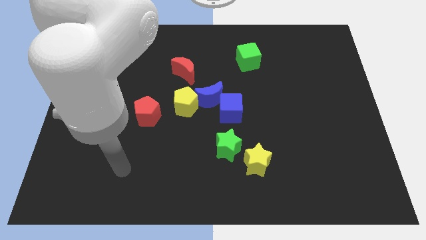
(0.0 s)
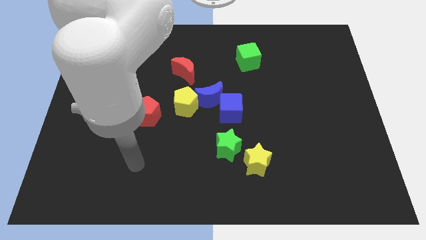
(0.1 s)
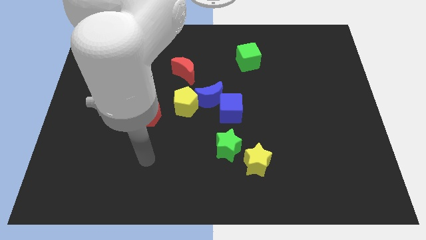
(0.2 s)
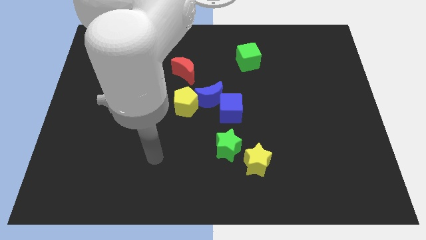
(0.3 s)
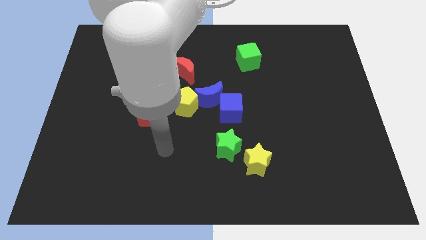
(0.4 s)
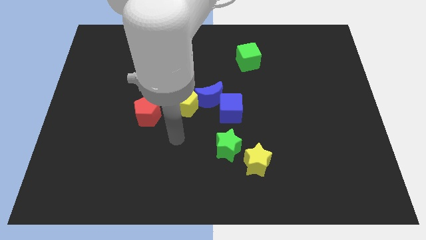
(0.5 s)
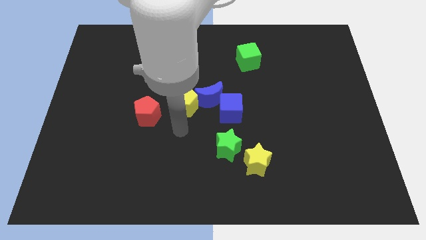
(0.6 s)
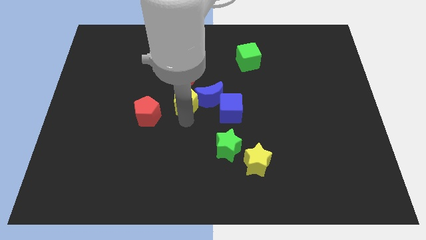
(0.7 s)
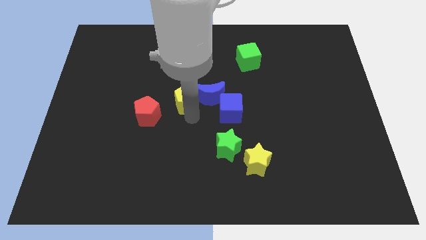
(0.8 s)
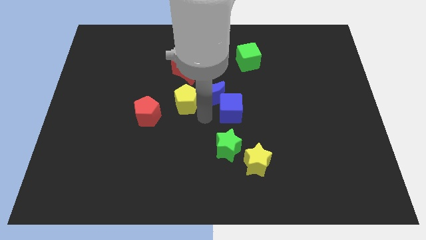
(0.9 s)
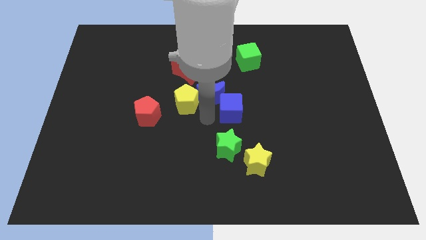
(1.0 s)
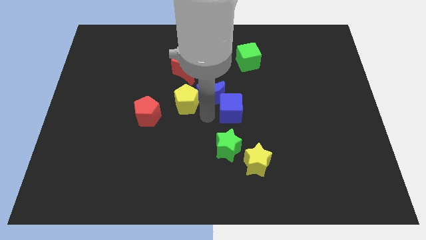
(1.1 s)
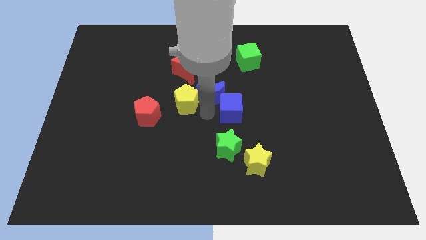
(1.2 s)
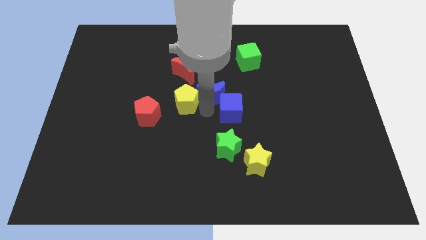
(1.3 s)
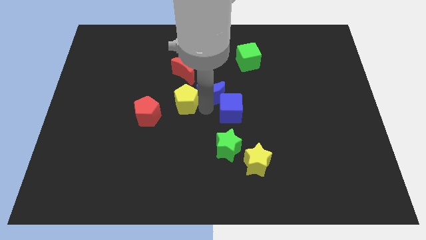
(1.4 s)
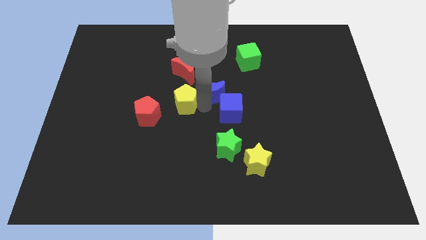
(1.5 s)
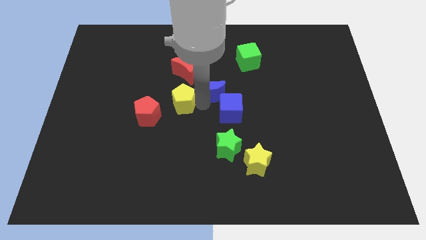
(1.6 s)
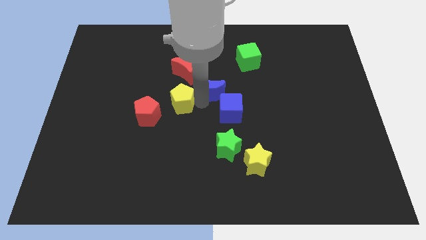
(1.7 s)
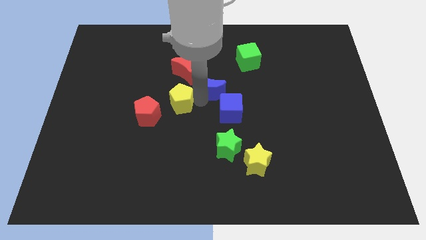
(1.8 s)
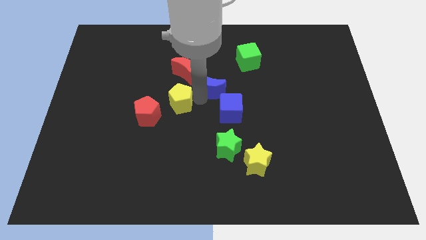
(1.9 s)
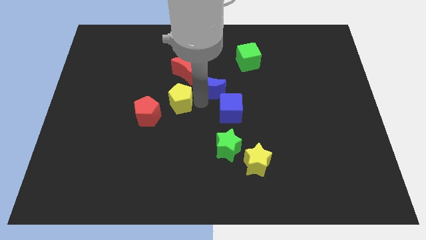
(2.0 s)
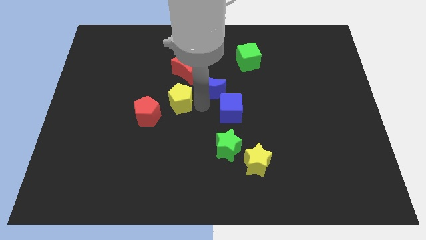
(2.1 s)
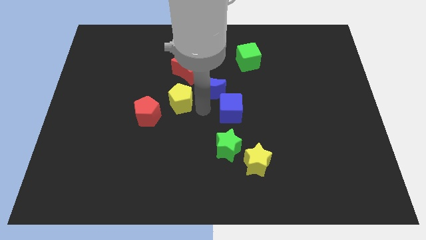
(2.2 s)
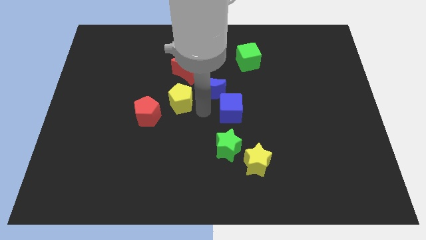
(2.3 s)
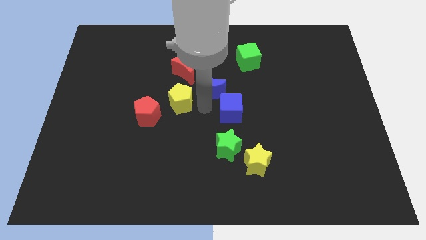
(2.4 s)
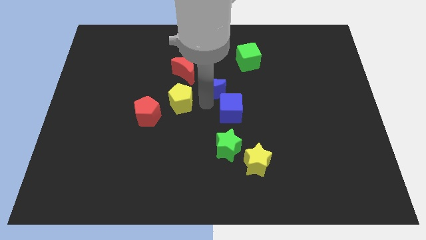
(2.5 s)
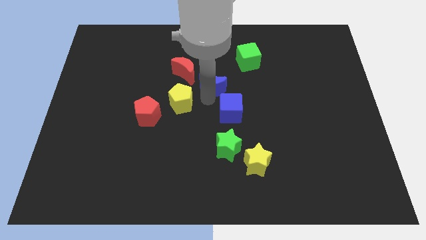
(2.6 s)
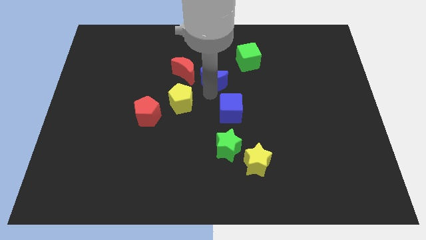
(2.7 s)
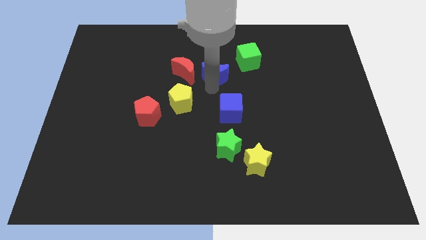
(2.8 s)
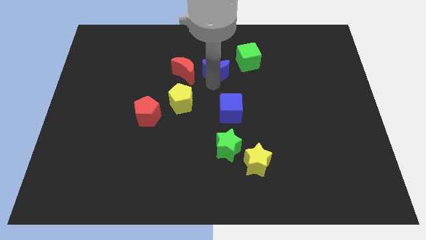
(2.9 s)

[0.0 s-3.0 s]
separate the blue moon from the blue cube and yellow pentagon

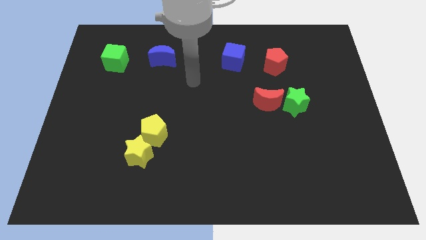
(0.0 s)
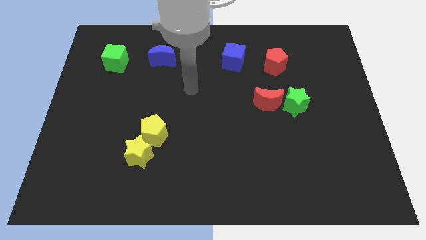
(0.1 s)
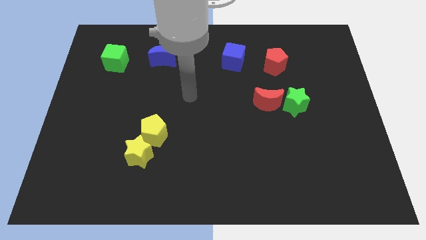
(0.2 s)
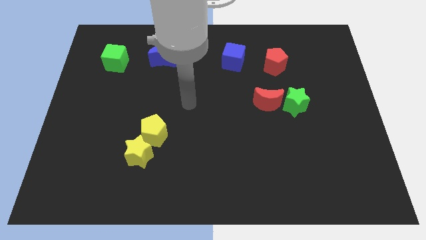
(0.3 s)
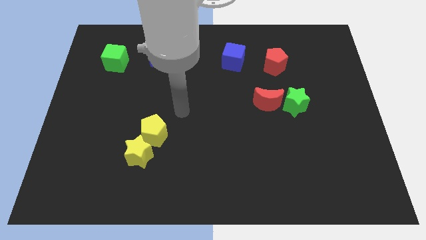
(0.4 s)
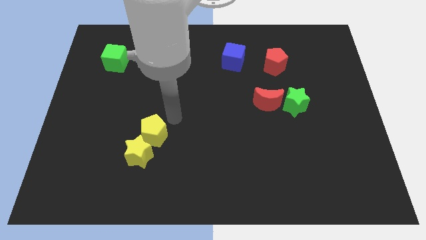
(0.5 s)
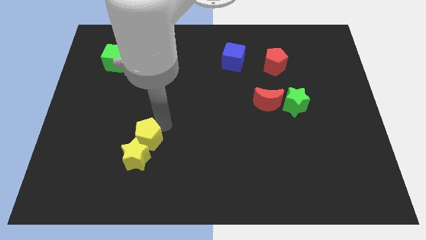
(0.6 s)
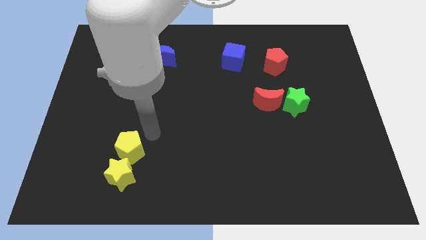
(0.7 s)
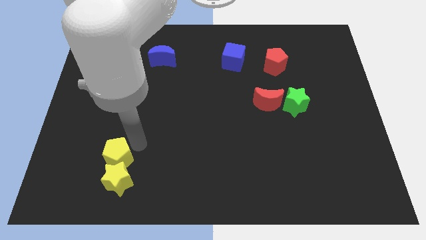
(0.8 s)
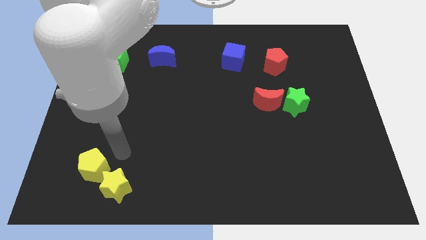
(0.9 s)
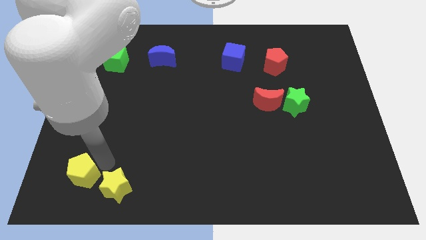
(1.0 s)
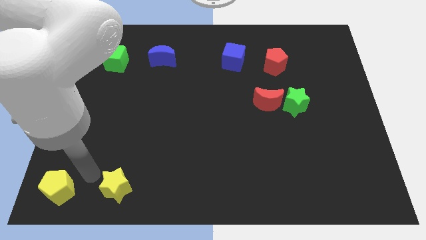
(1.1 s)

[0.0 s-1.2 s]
separate the yellow star from the yellow pentagon

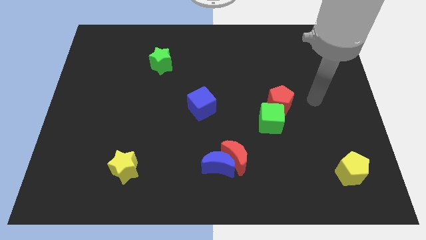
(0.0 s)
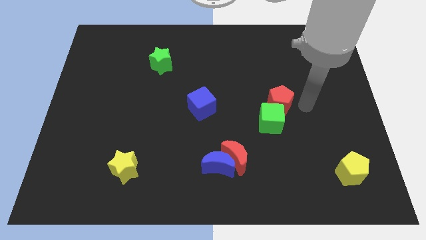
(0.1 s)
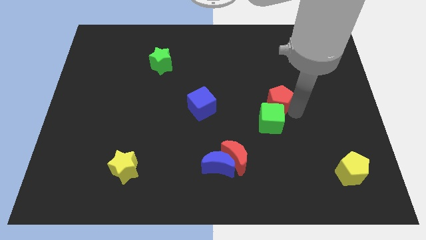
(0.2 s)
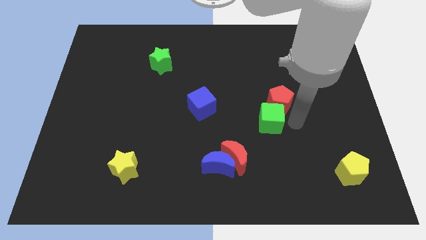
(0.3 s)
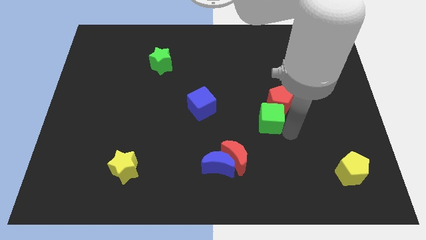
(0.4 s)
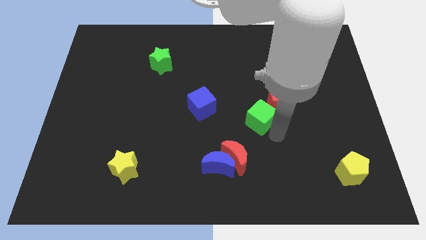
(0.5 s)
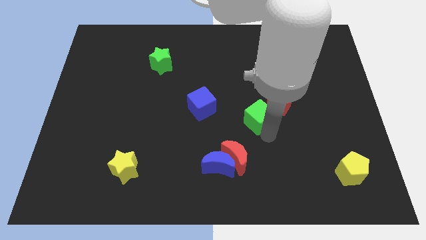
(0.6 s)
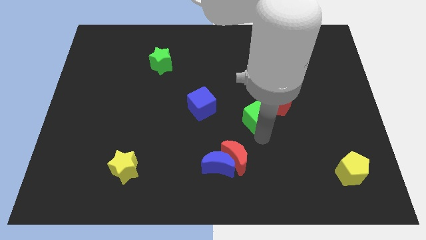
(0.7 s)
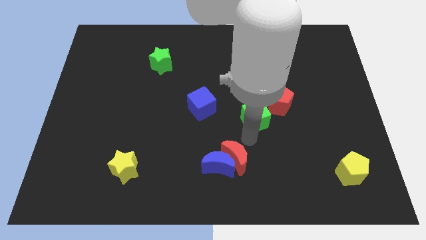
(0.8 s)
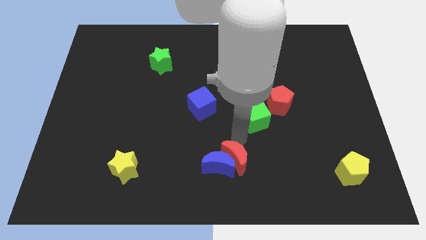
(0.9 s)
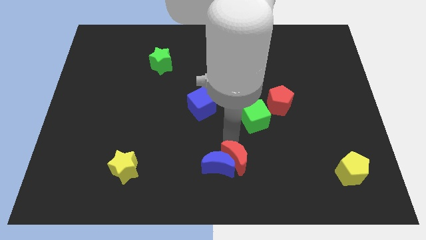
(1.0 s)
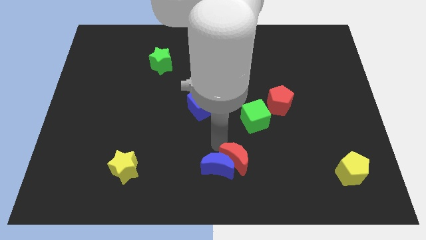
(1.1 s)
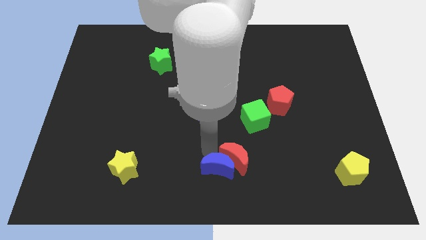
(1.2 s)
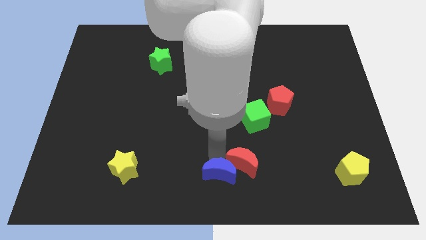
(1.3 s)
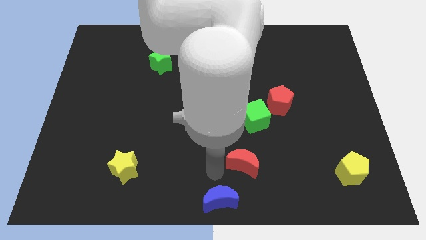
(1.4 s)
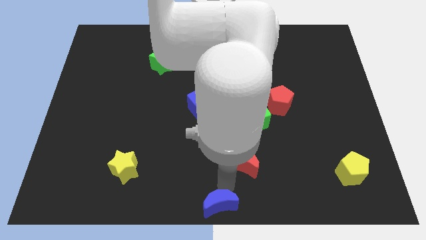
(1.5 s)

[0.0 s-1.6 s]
pull the red moon apart from the blue moon

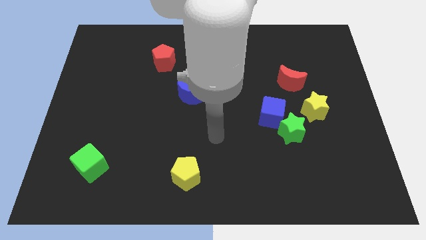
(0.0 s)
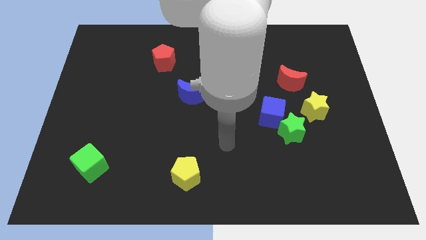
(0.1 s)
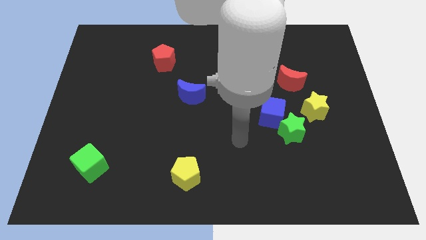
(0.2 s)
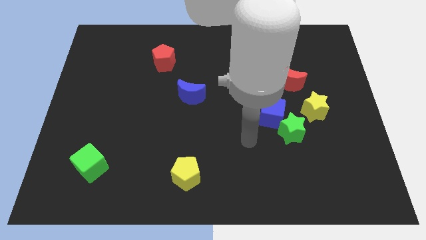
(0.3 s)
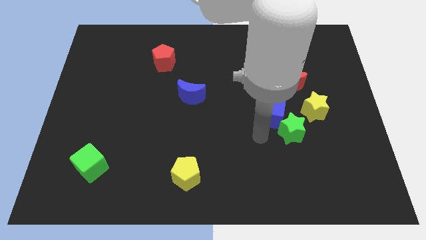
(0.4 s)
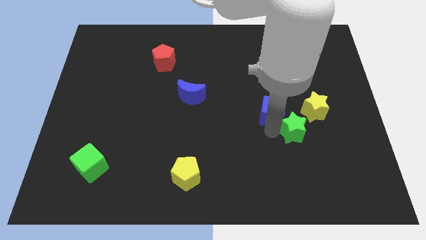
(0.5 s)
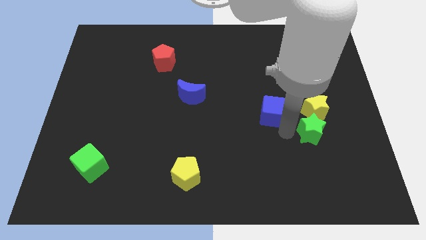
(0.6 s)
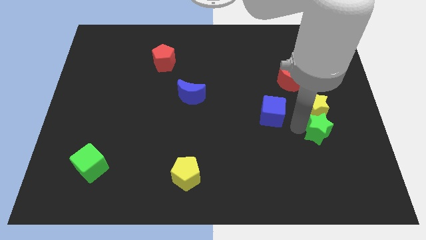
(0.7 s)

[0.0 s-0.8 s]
move the blue cube away from the green star

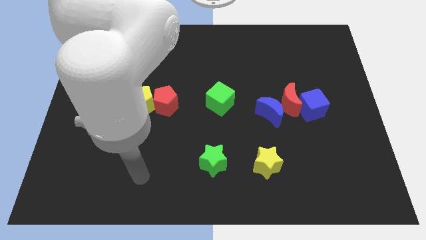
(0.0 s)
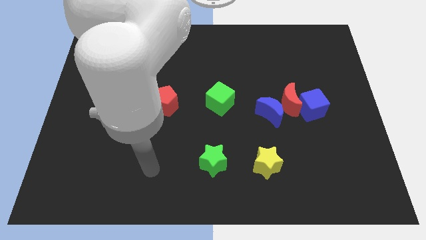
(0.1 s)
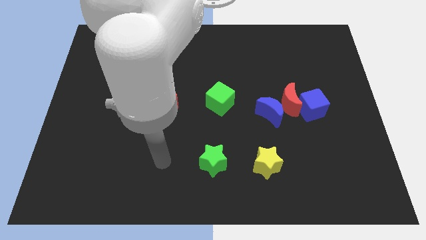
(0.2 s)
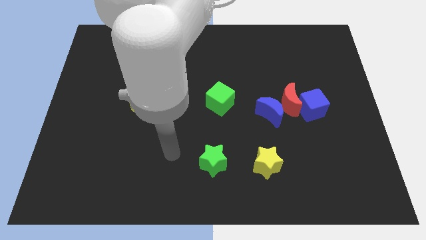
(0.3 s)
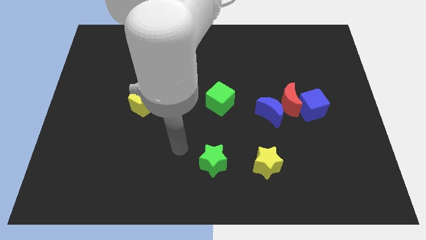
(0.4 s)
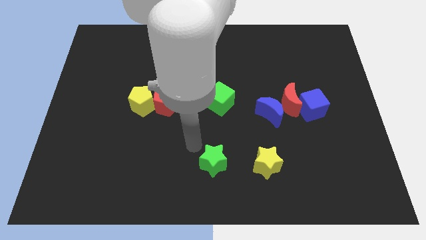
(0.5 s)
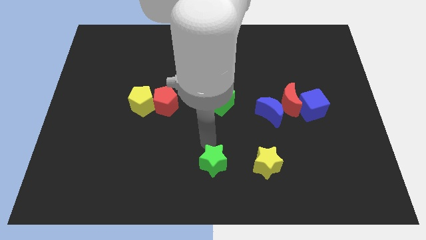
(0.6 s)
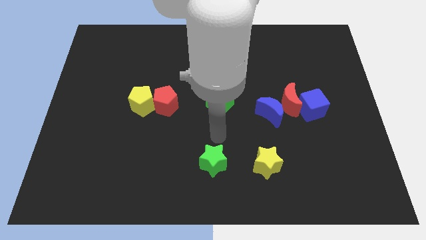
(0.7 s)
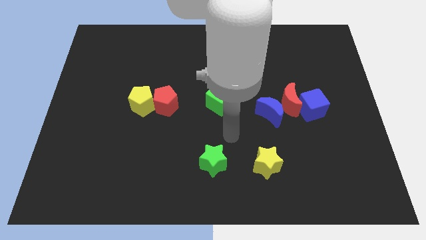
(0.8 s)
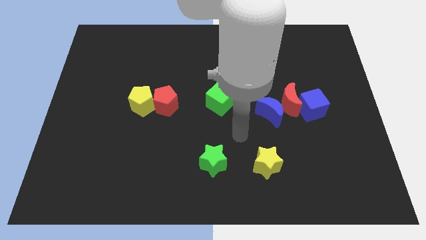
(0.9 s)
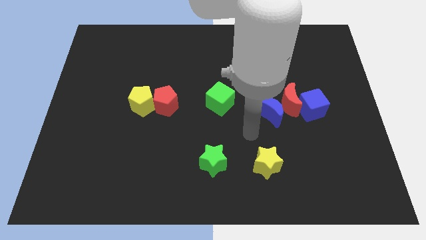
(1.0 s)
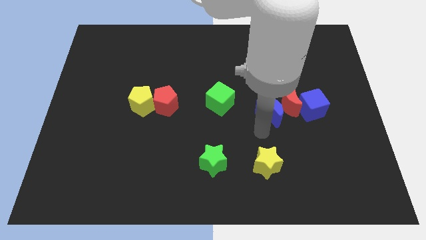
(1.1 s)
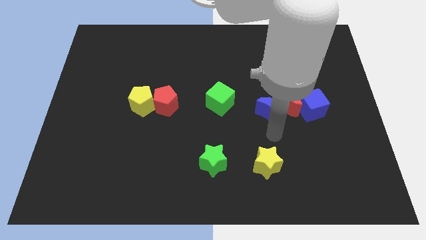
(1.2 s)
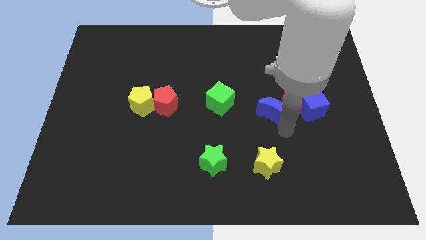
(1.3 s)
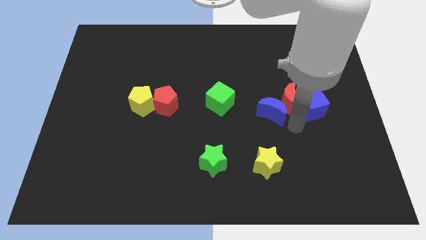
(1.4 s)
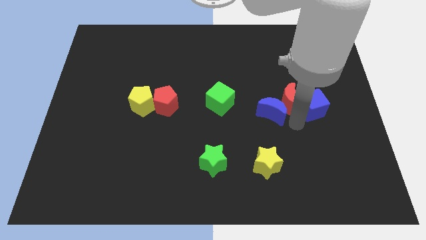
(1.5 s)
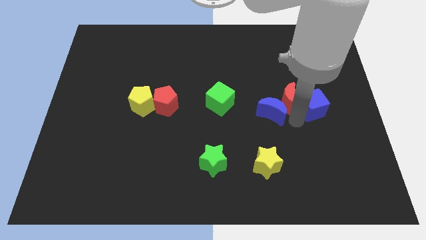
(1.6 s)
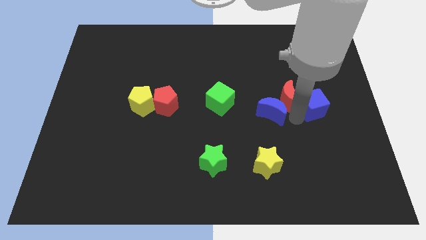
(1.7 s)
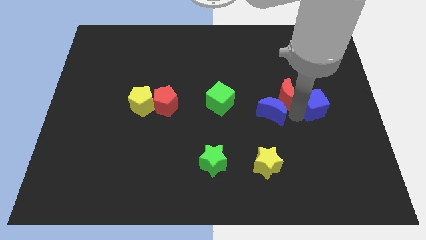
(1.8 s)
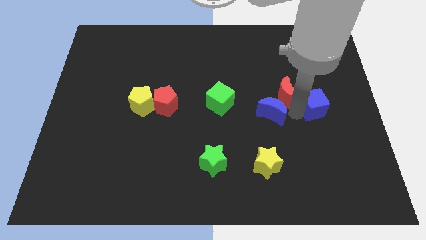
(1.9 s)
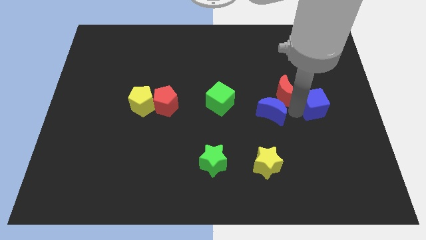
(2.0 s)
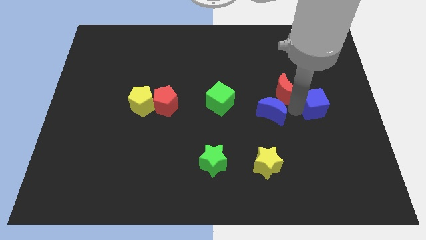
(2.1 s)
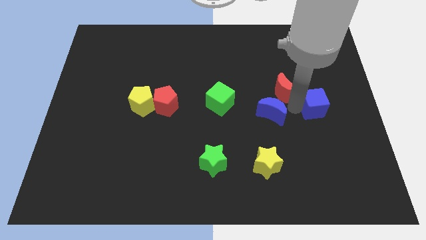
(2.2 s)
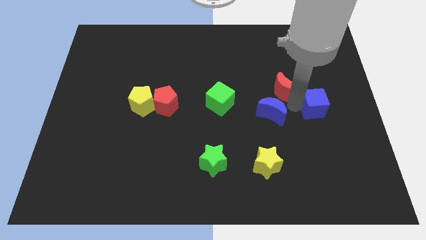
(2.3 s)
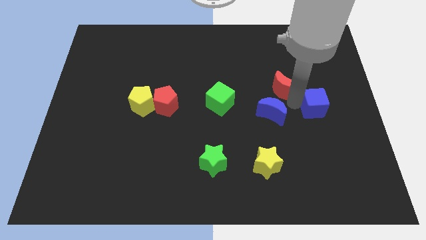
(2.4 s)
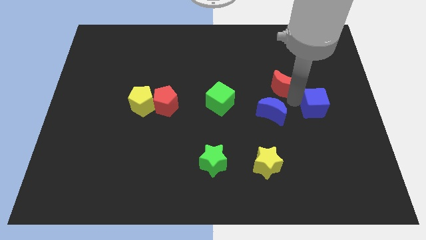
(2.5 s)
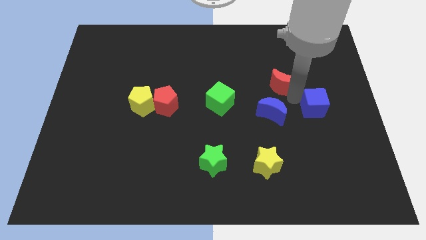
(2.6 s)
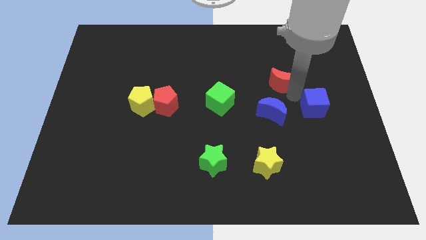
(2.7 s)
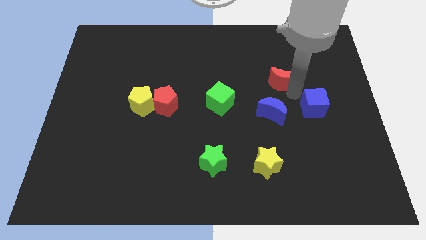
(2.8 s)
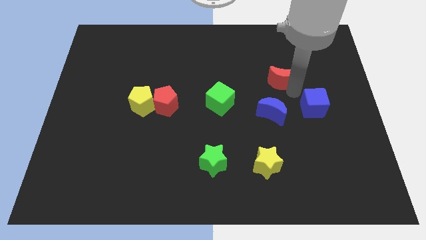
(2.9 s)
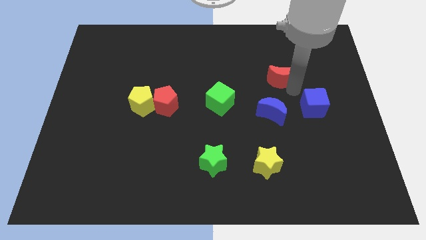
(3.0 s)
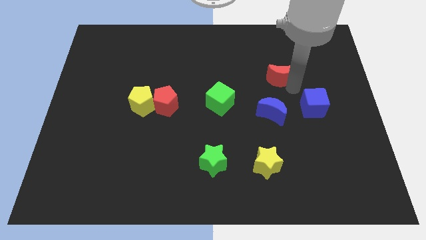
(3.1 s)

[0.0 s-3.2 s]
separate the red moon from the blue cube and blue moon
